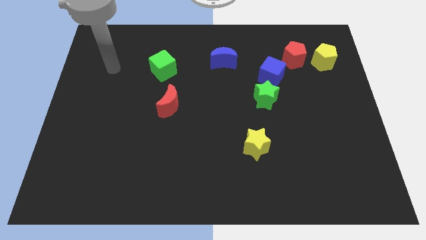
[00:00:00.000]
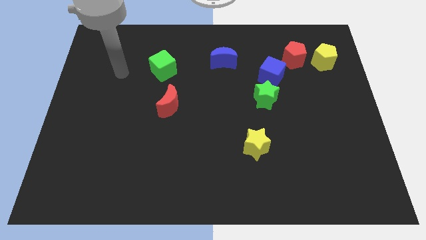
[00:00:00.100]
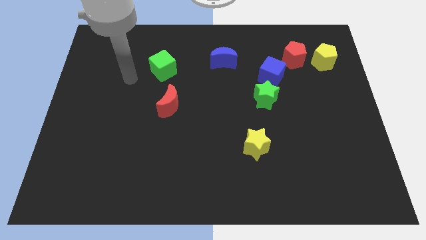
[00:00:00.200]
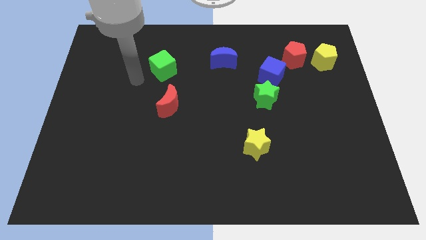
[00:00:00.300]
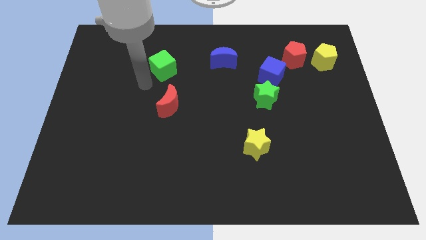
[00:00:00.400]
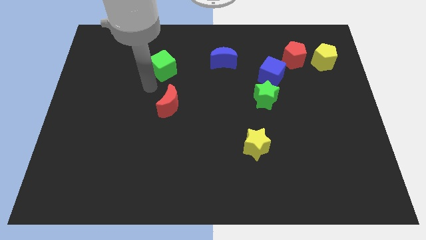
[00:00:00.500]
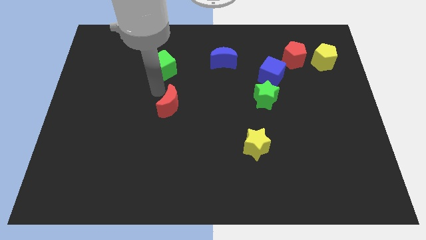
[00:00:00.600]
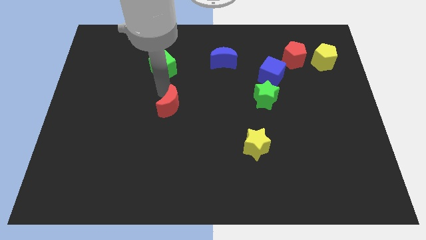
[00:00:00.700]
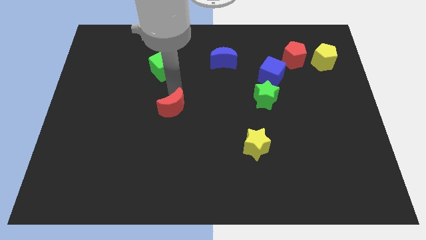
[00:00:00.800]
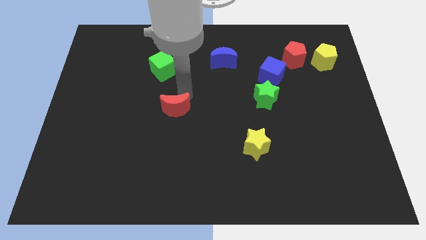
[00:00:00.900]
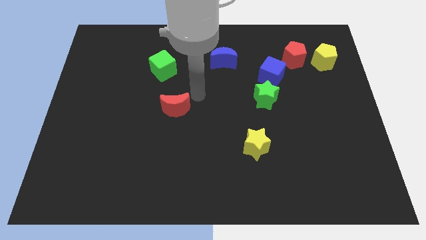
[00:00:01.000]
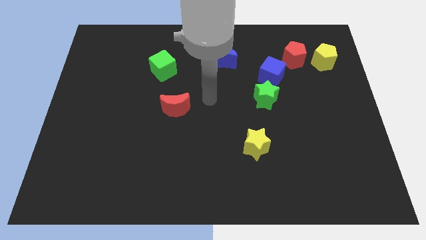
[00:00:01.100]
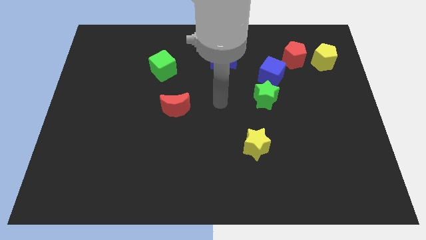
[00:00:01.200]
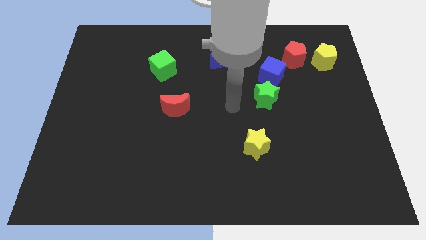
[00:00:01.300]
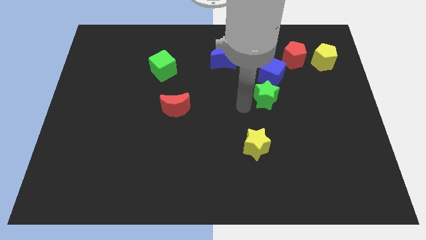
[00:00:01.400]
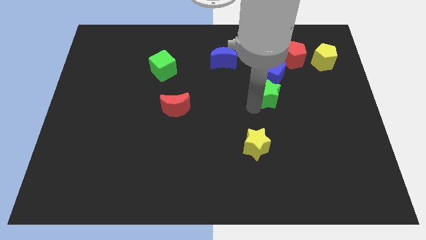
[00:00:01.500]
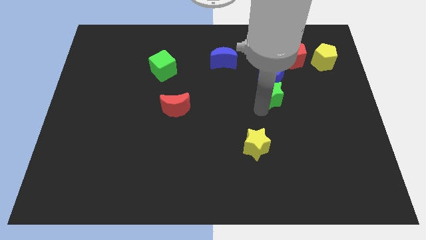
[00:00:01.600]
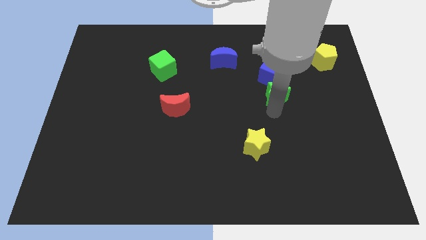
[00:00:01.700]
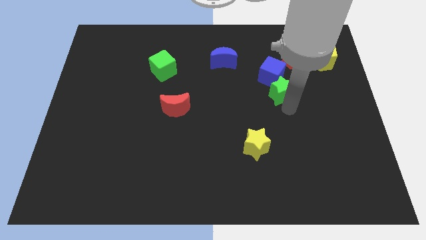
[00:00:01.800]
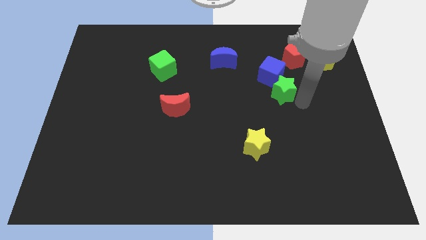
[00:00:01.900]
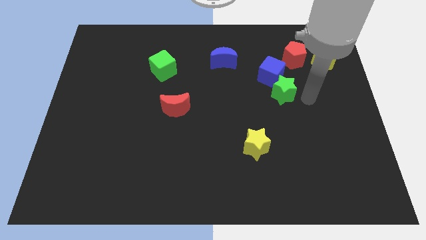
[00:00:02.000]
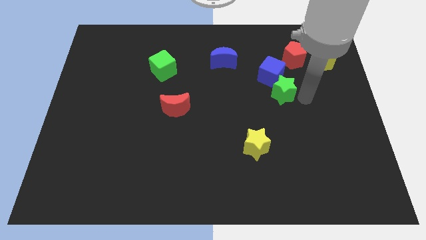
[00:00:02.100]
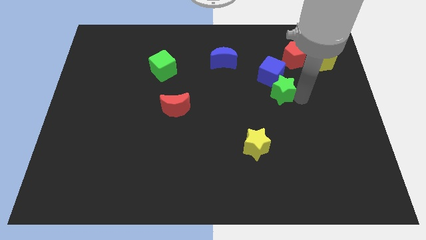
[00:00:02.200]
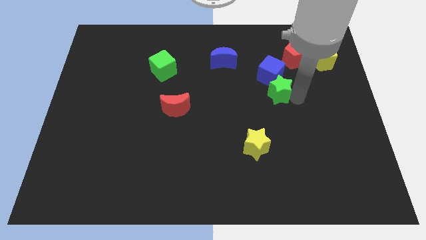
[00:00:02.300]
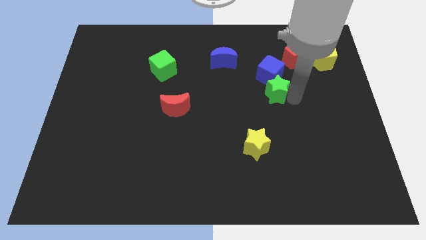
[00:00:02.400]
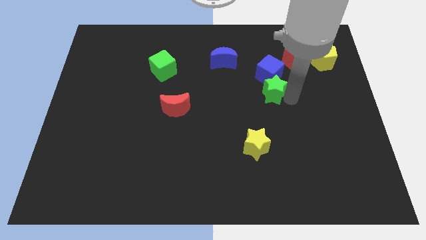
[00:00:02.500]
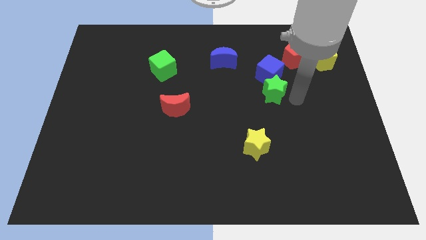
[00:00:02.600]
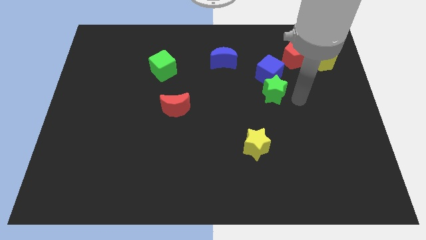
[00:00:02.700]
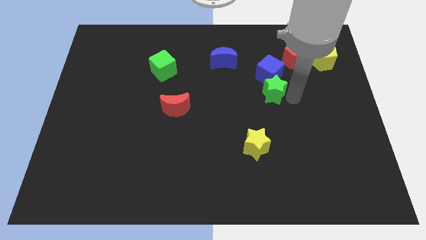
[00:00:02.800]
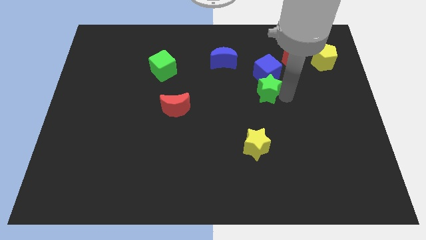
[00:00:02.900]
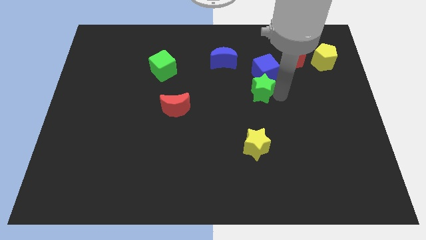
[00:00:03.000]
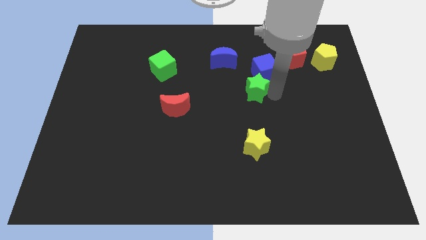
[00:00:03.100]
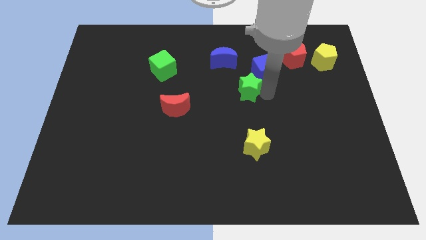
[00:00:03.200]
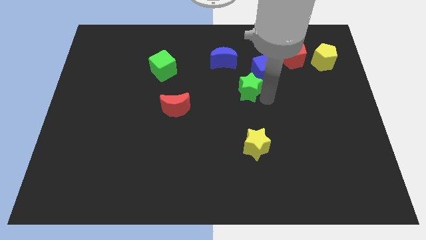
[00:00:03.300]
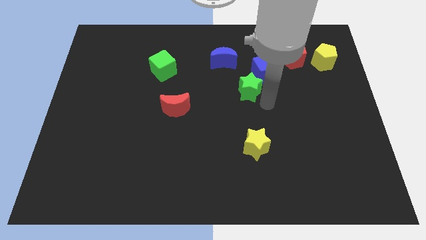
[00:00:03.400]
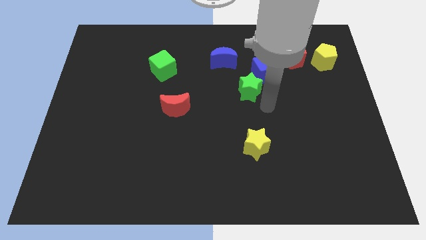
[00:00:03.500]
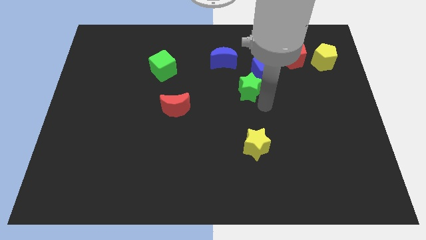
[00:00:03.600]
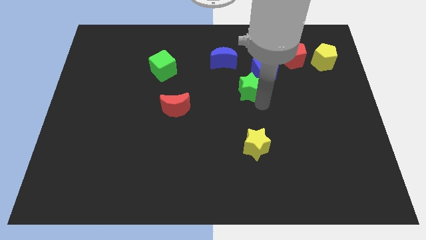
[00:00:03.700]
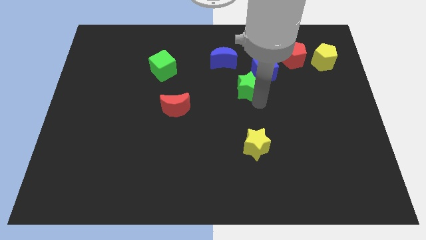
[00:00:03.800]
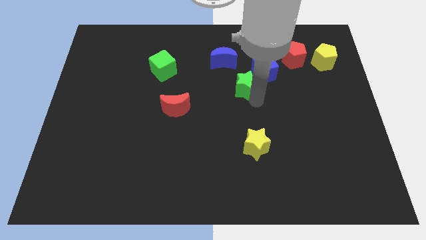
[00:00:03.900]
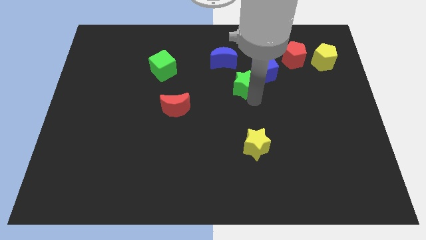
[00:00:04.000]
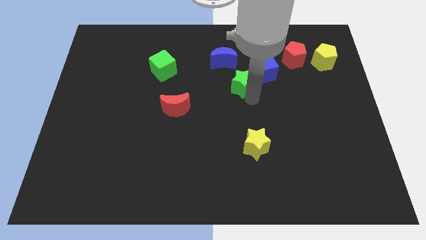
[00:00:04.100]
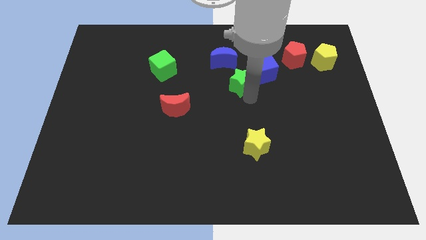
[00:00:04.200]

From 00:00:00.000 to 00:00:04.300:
move the green star a little bit upwards and then to the left

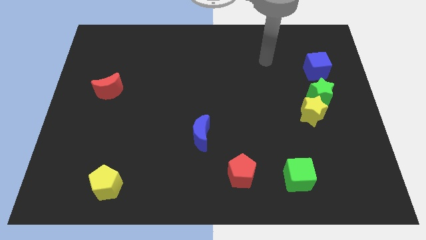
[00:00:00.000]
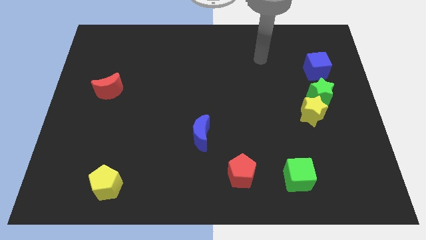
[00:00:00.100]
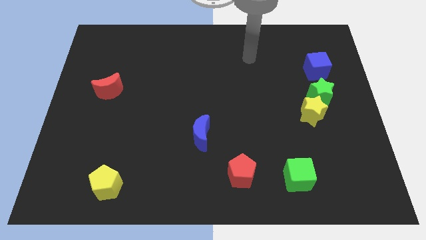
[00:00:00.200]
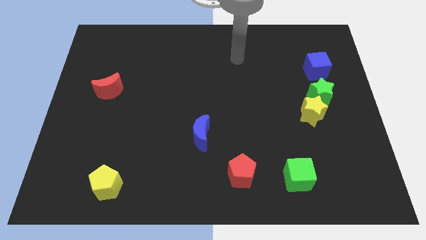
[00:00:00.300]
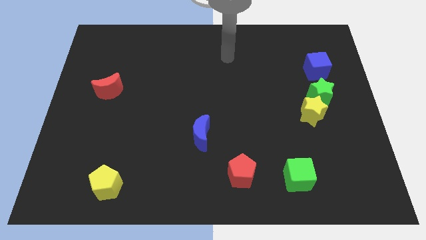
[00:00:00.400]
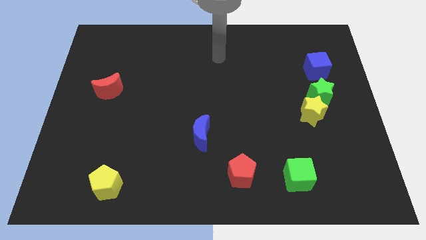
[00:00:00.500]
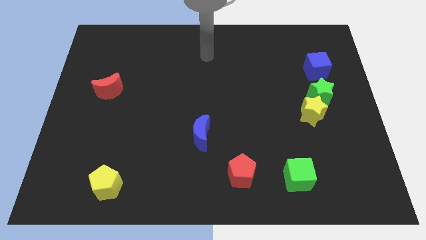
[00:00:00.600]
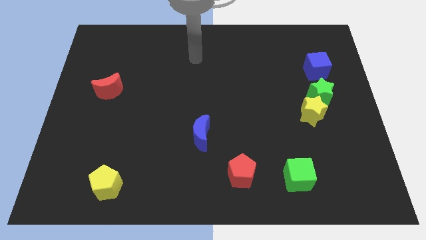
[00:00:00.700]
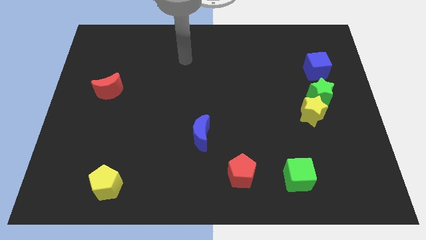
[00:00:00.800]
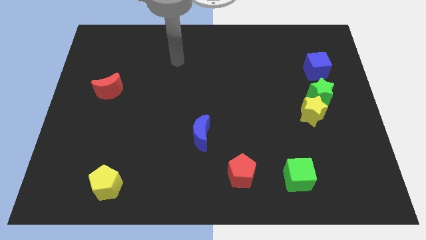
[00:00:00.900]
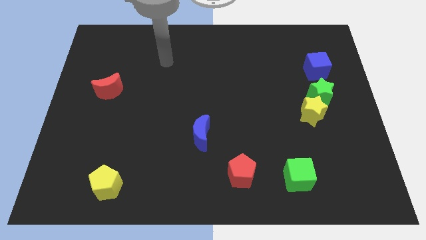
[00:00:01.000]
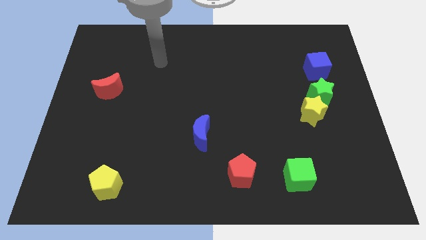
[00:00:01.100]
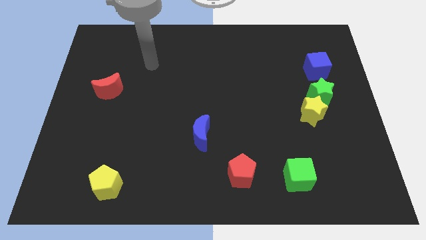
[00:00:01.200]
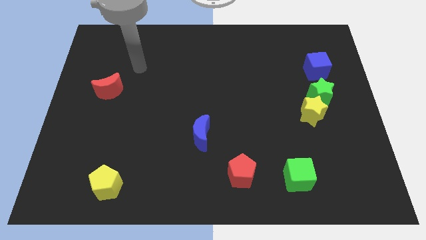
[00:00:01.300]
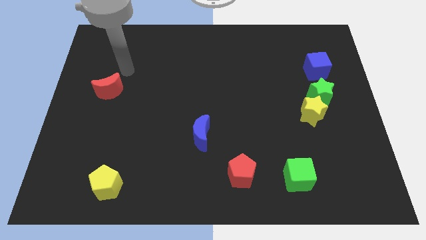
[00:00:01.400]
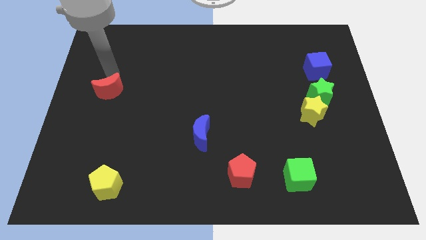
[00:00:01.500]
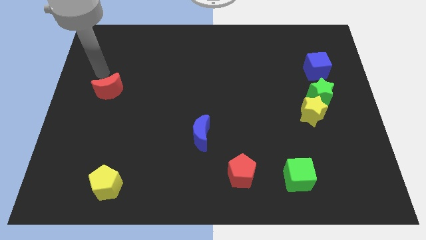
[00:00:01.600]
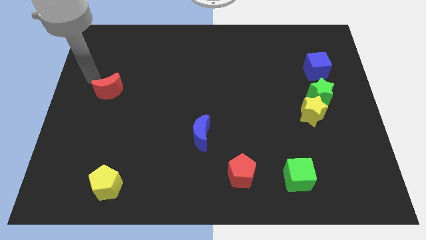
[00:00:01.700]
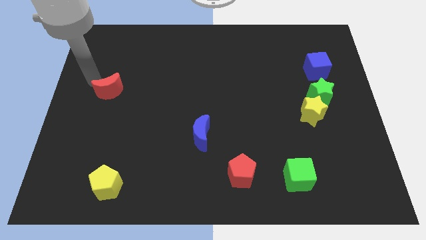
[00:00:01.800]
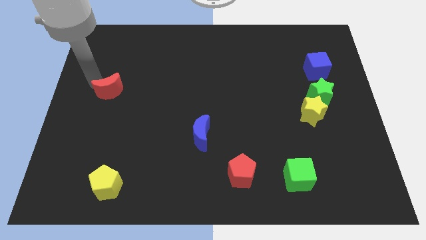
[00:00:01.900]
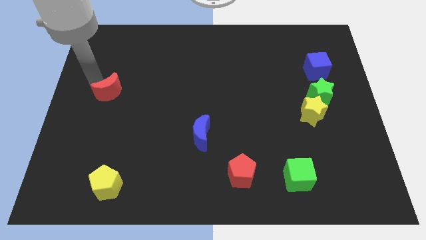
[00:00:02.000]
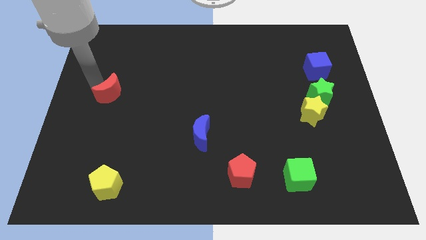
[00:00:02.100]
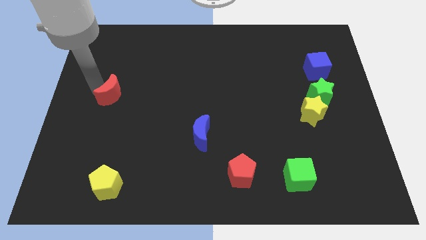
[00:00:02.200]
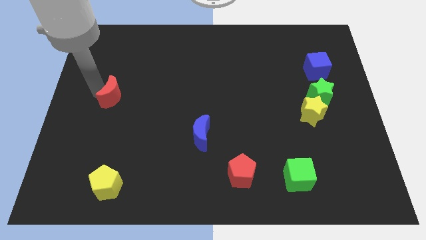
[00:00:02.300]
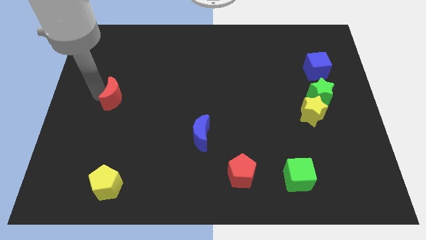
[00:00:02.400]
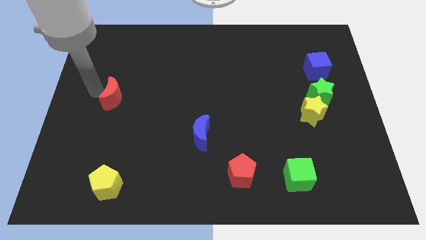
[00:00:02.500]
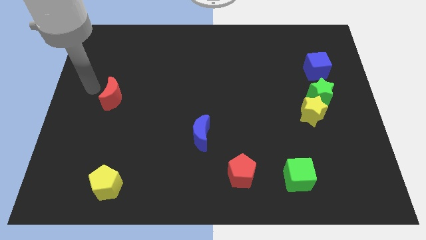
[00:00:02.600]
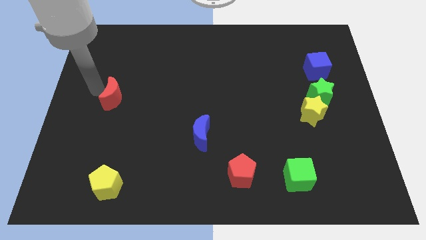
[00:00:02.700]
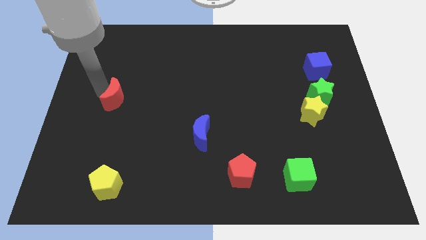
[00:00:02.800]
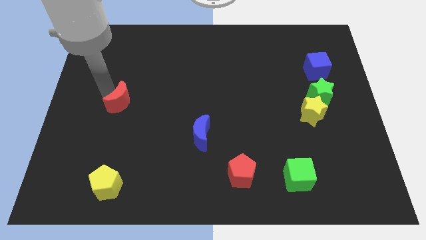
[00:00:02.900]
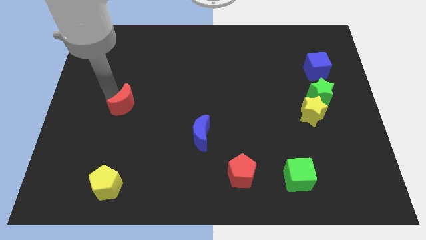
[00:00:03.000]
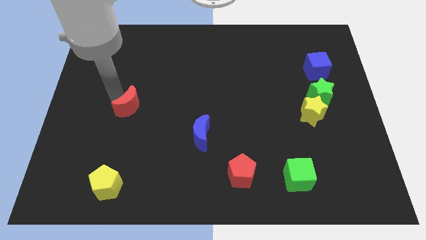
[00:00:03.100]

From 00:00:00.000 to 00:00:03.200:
slightly slide the red moon downwards and to the right
